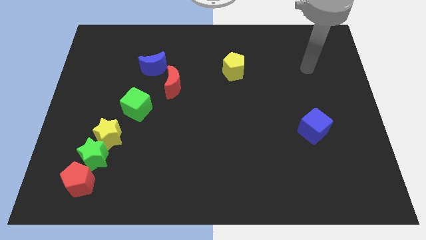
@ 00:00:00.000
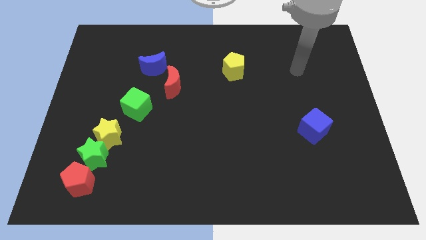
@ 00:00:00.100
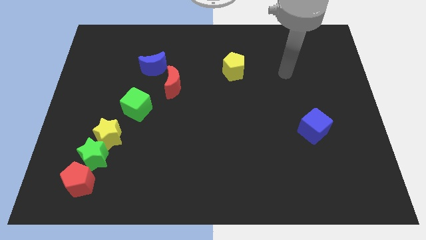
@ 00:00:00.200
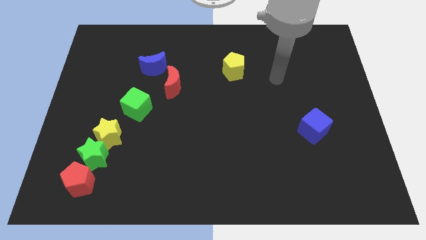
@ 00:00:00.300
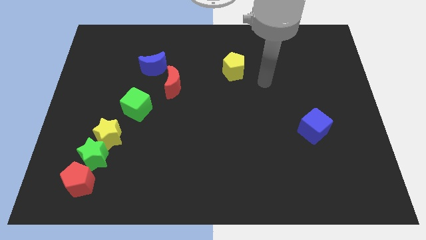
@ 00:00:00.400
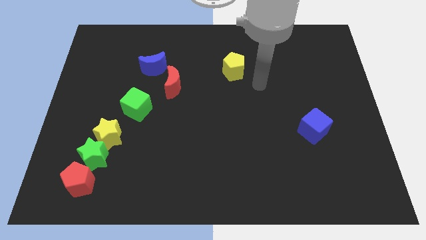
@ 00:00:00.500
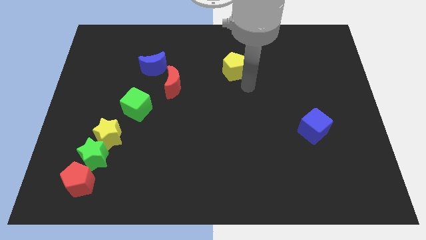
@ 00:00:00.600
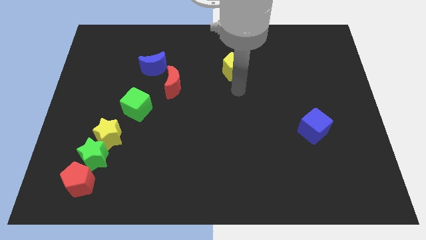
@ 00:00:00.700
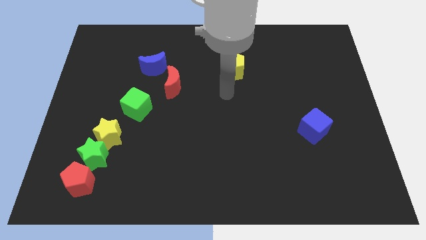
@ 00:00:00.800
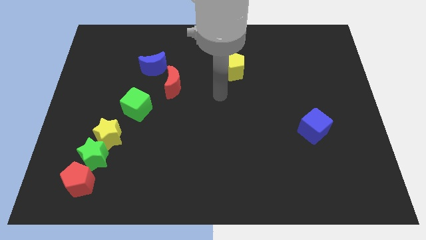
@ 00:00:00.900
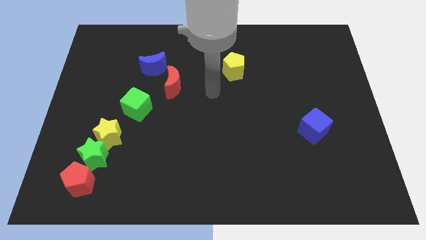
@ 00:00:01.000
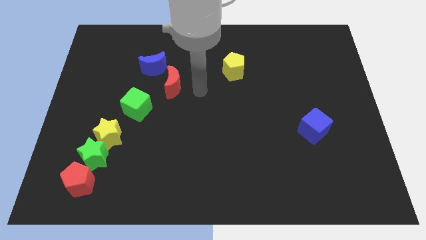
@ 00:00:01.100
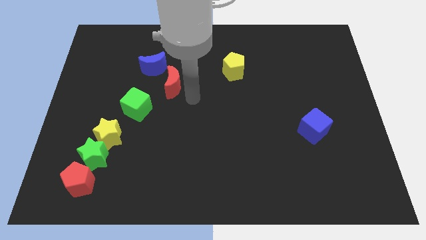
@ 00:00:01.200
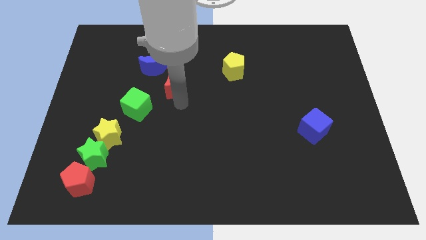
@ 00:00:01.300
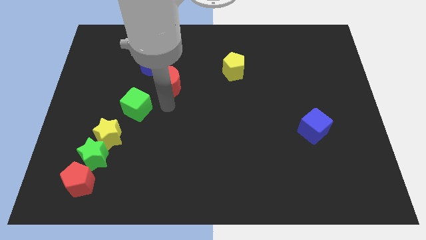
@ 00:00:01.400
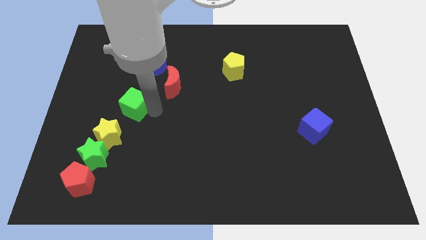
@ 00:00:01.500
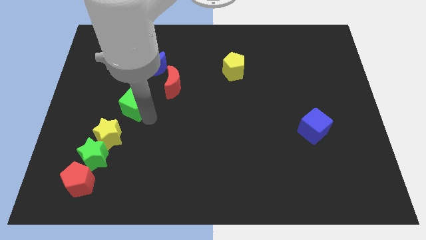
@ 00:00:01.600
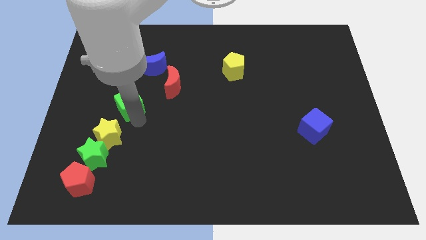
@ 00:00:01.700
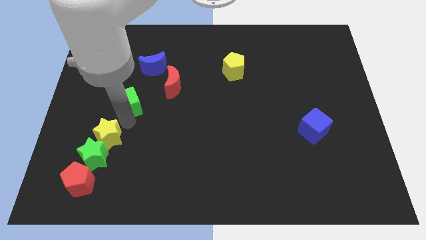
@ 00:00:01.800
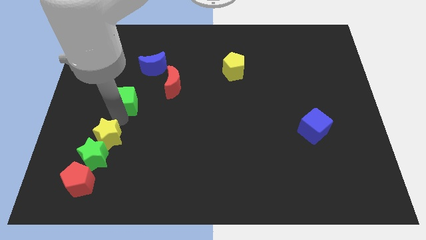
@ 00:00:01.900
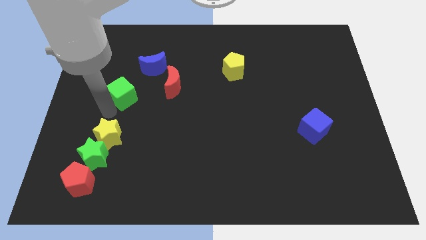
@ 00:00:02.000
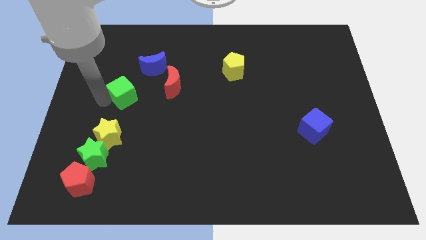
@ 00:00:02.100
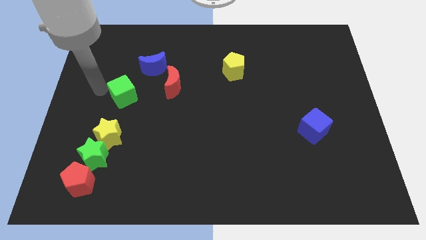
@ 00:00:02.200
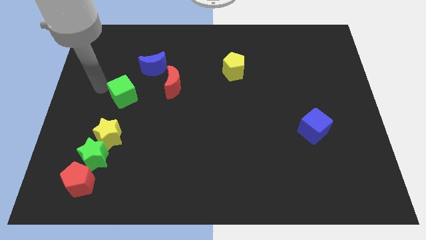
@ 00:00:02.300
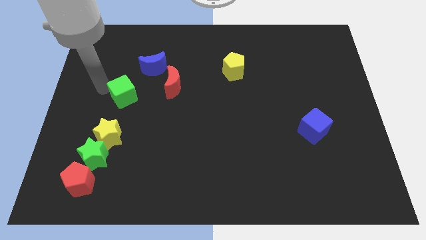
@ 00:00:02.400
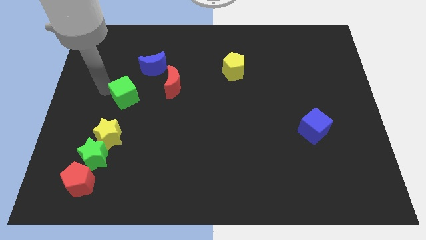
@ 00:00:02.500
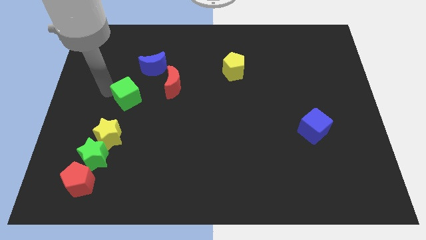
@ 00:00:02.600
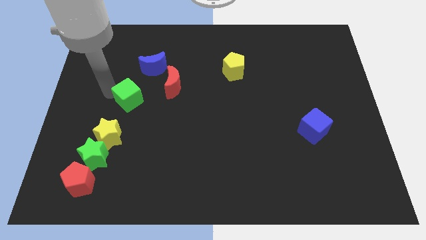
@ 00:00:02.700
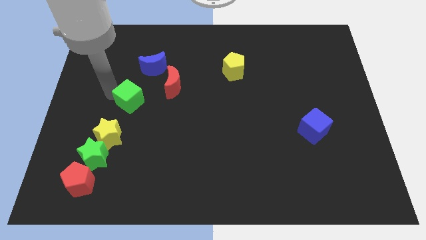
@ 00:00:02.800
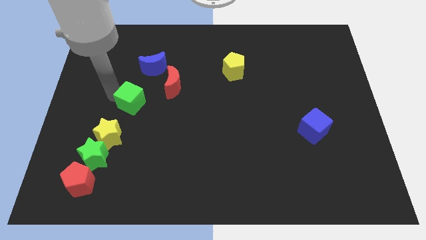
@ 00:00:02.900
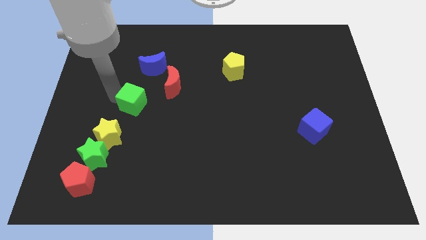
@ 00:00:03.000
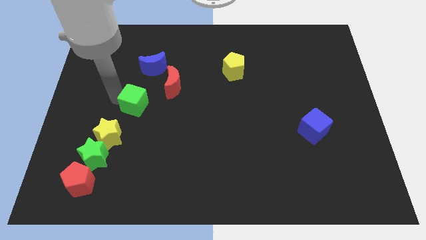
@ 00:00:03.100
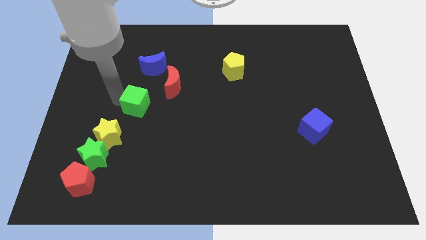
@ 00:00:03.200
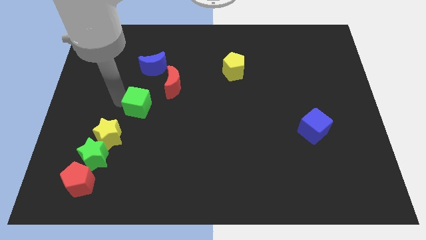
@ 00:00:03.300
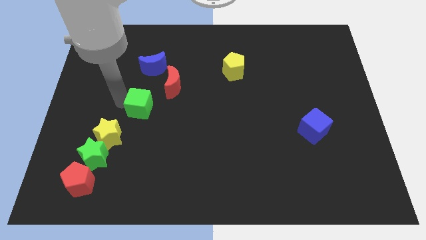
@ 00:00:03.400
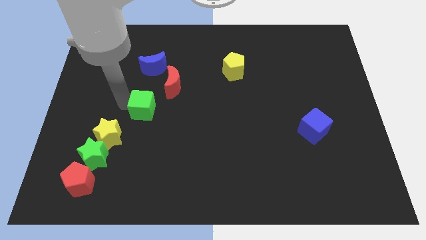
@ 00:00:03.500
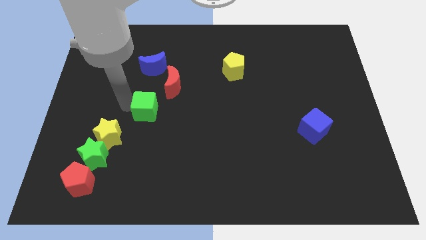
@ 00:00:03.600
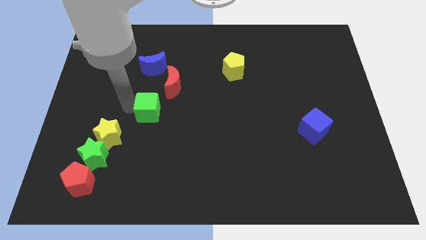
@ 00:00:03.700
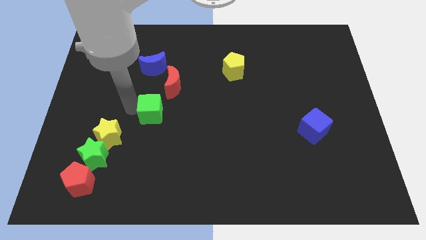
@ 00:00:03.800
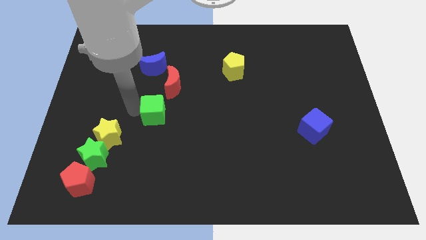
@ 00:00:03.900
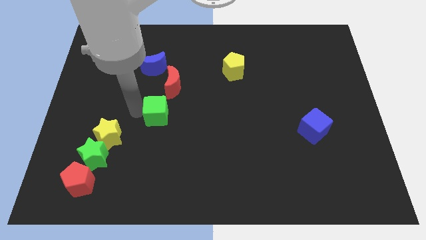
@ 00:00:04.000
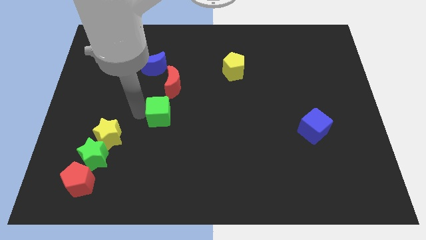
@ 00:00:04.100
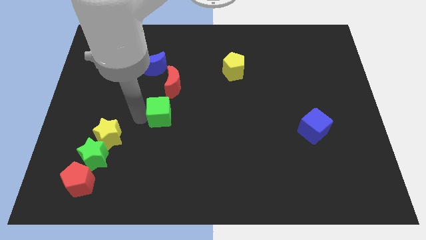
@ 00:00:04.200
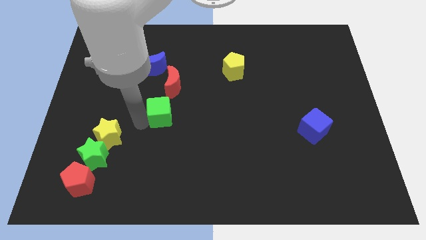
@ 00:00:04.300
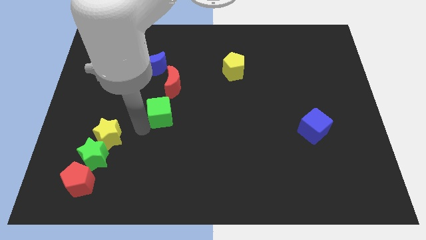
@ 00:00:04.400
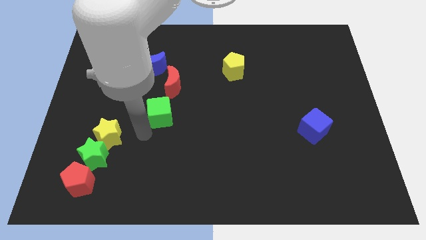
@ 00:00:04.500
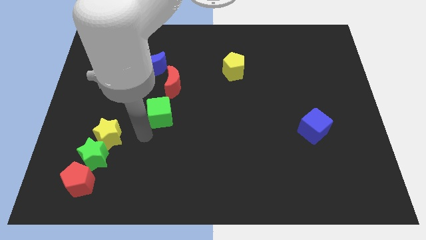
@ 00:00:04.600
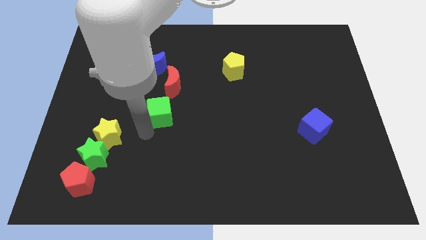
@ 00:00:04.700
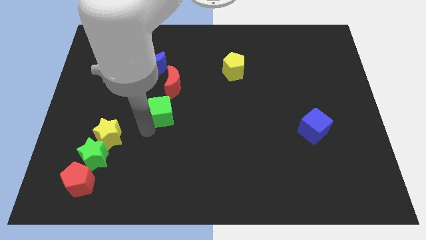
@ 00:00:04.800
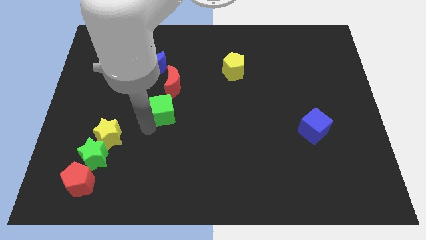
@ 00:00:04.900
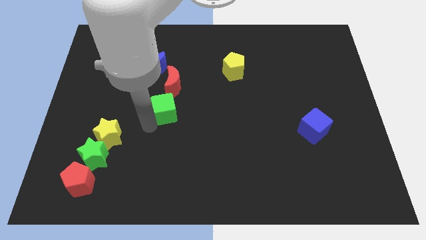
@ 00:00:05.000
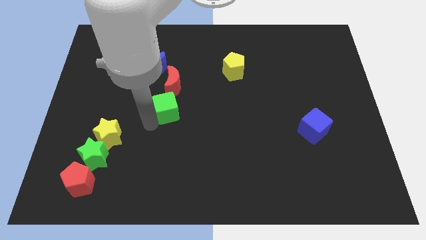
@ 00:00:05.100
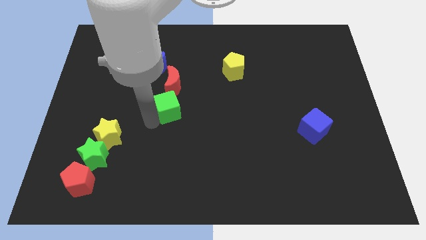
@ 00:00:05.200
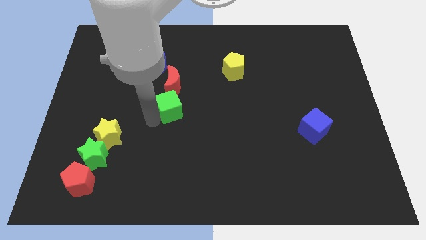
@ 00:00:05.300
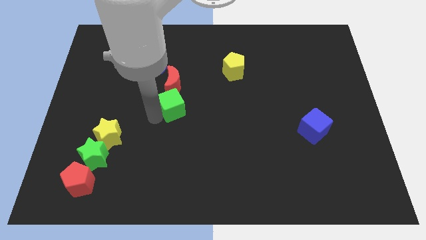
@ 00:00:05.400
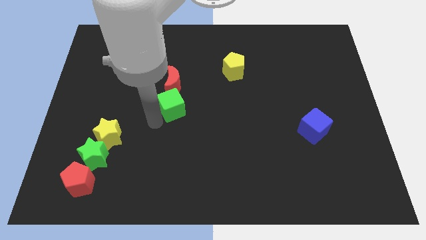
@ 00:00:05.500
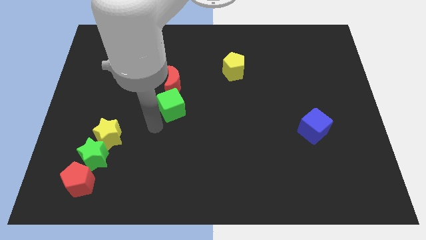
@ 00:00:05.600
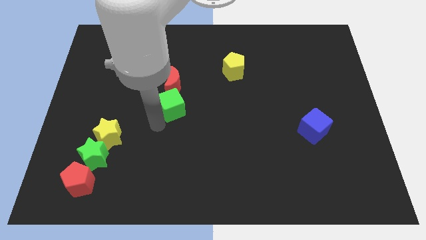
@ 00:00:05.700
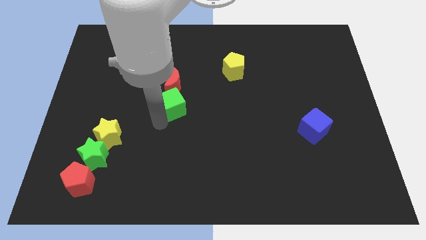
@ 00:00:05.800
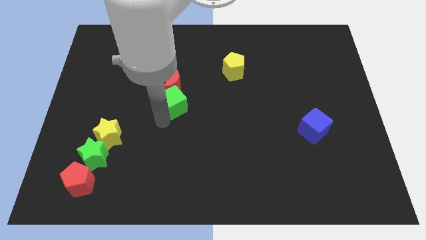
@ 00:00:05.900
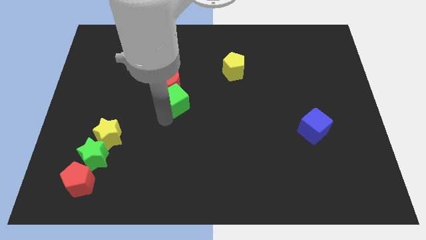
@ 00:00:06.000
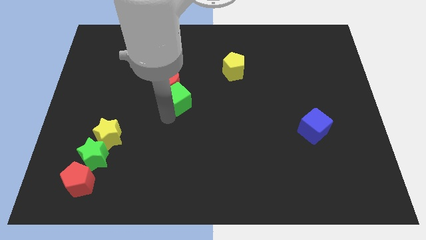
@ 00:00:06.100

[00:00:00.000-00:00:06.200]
slightly move the green cube upwards and to the right

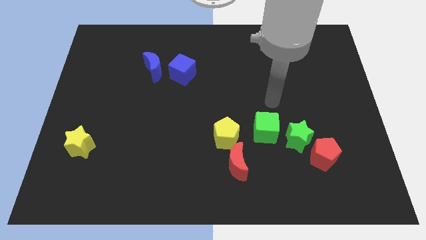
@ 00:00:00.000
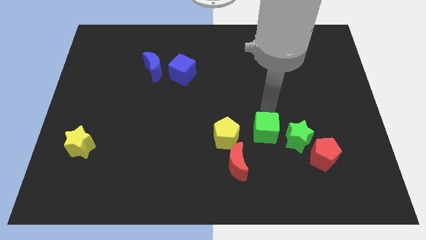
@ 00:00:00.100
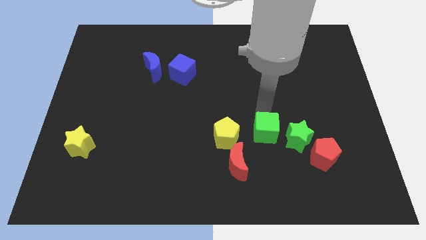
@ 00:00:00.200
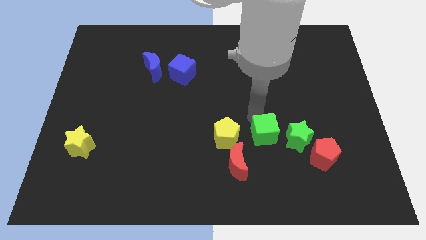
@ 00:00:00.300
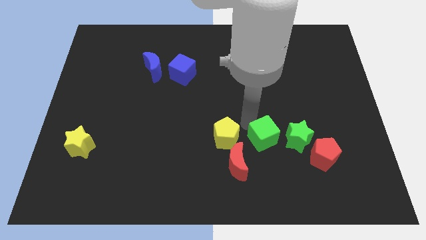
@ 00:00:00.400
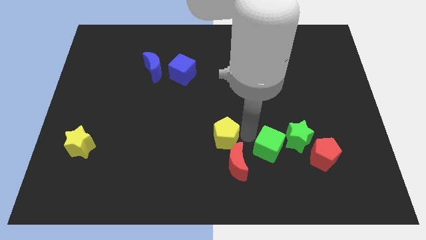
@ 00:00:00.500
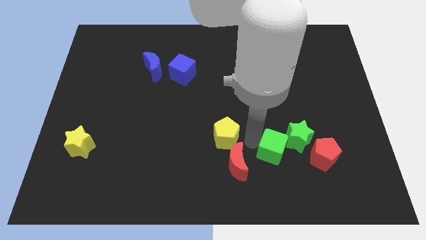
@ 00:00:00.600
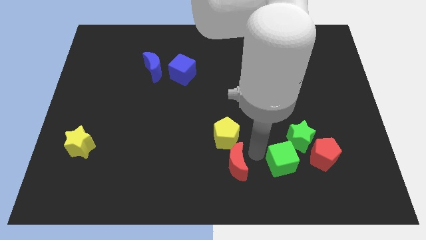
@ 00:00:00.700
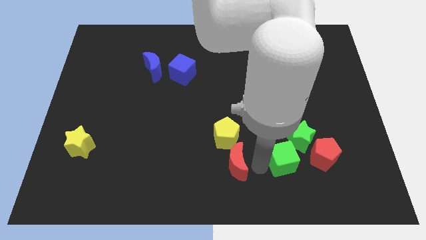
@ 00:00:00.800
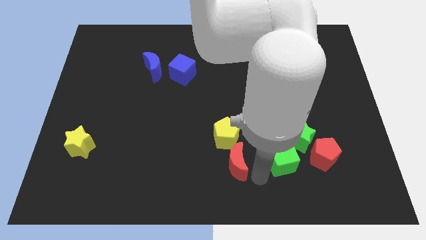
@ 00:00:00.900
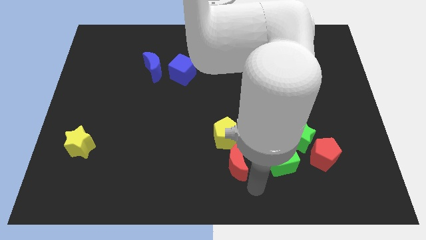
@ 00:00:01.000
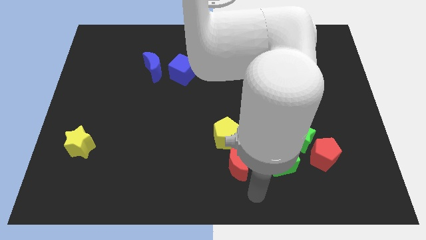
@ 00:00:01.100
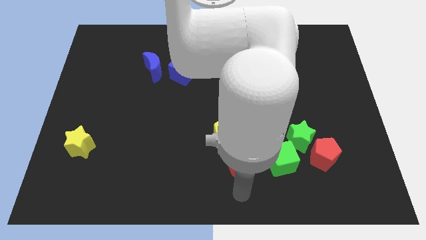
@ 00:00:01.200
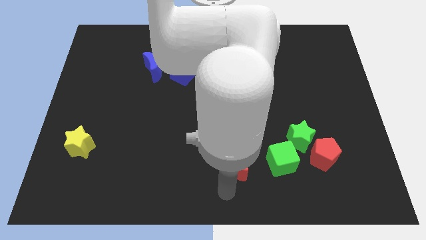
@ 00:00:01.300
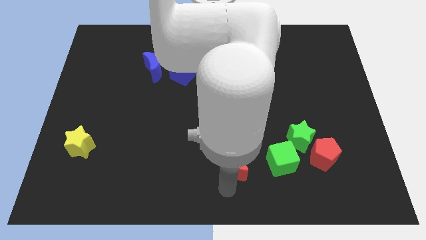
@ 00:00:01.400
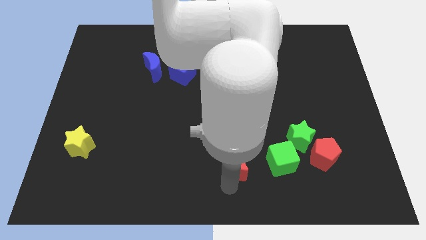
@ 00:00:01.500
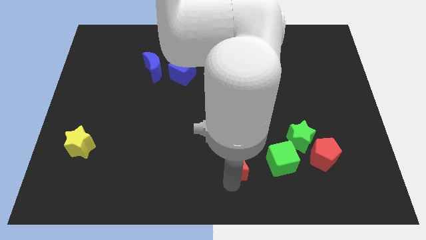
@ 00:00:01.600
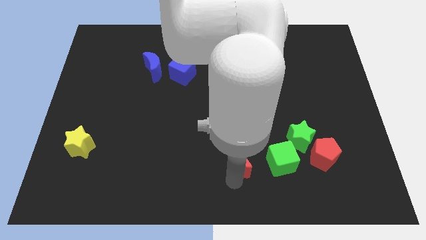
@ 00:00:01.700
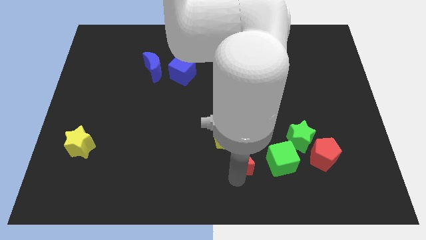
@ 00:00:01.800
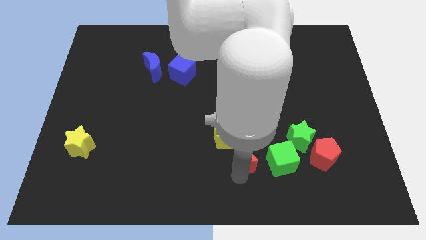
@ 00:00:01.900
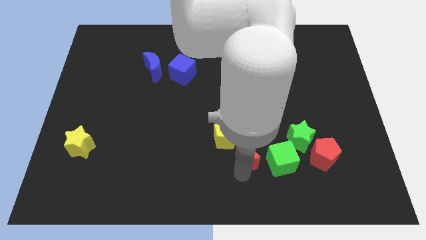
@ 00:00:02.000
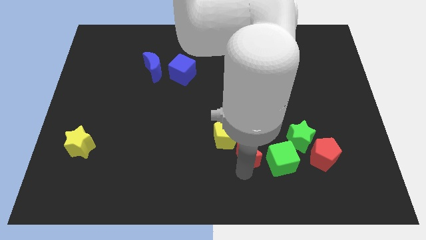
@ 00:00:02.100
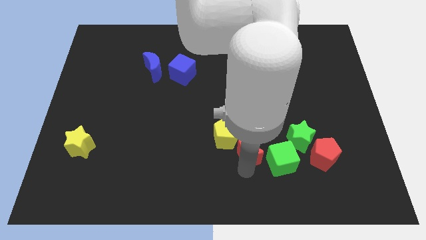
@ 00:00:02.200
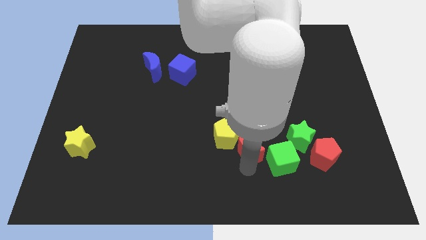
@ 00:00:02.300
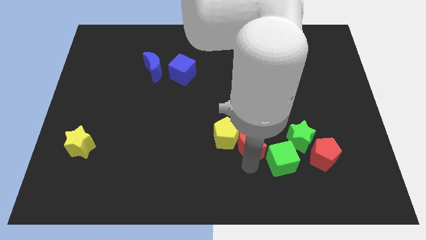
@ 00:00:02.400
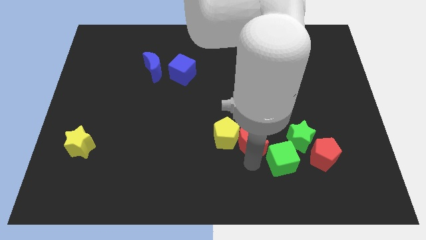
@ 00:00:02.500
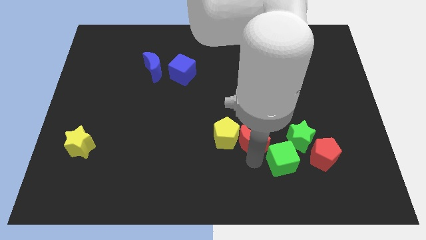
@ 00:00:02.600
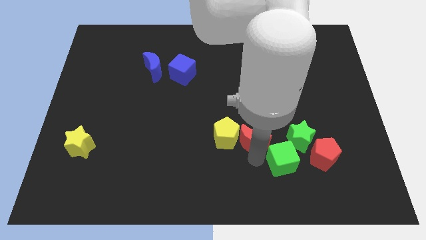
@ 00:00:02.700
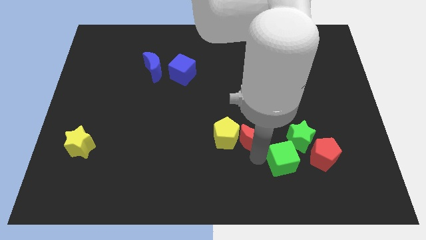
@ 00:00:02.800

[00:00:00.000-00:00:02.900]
slightly push the red moon upwards and to the right
